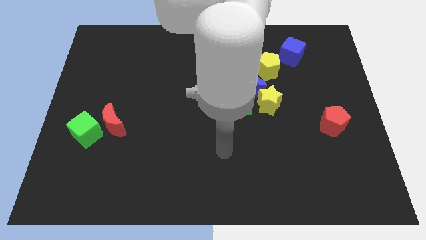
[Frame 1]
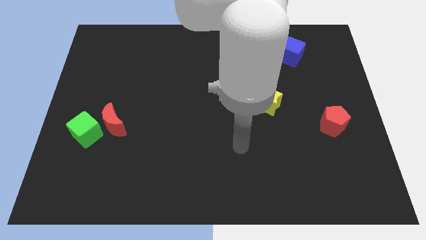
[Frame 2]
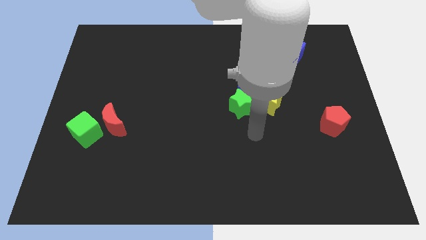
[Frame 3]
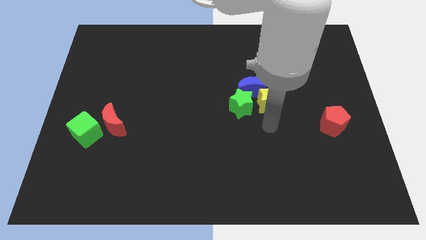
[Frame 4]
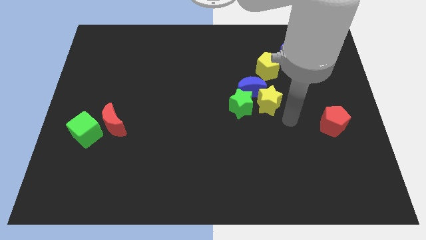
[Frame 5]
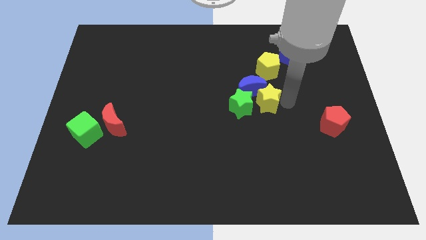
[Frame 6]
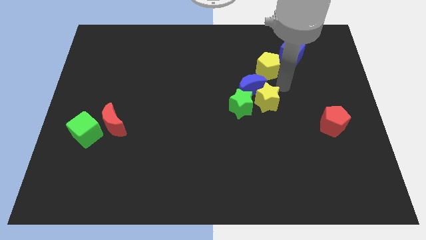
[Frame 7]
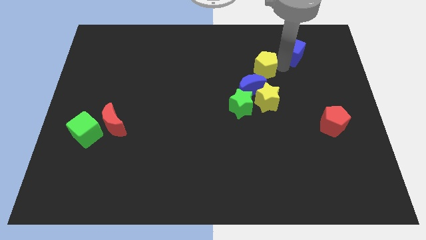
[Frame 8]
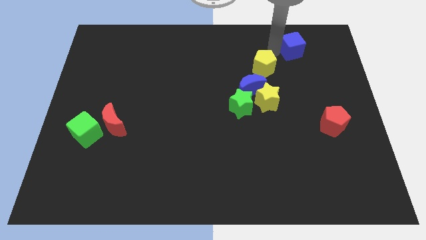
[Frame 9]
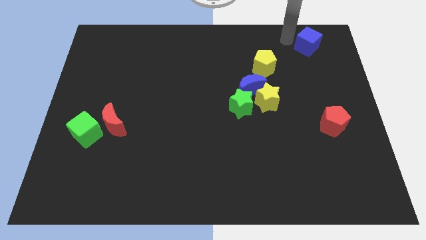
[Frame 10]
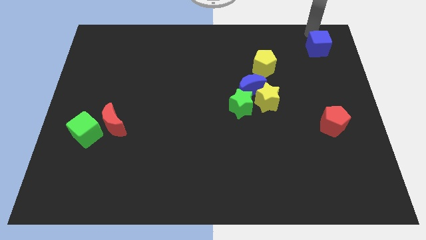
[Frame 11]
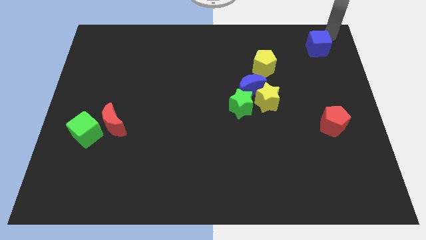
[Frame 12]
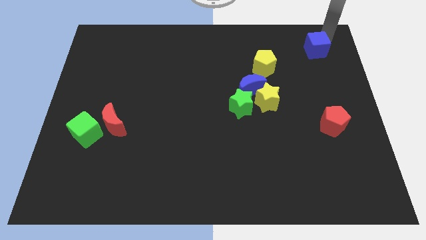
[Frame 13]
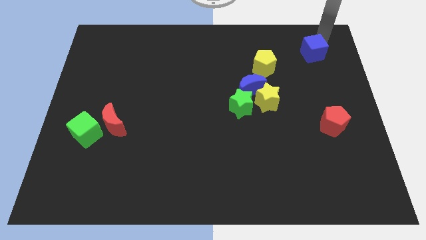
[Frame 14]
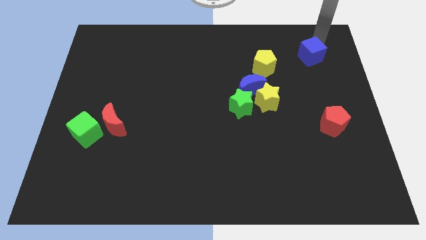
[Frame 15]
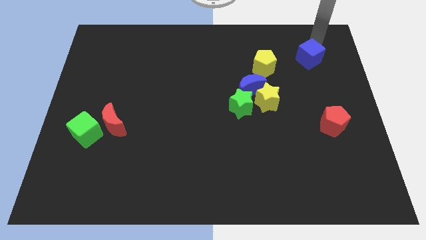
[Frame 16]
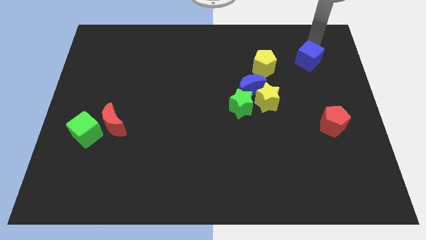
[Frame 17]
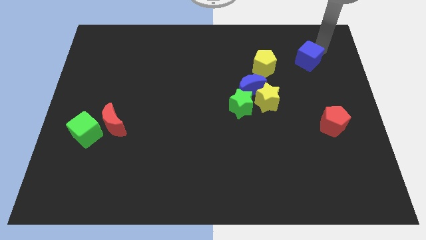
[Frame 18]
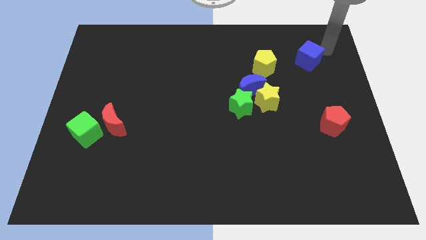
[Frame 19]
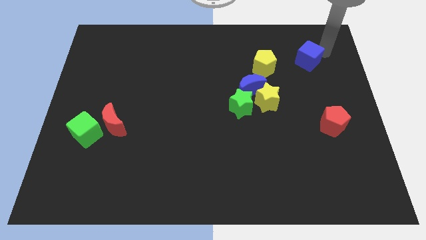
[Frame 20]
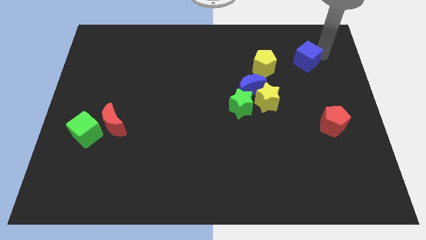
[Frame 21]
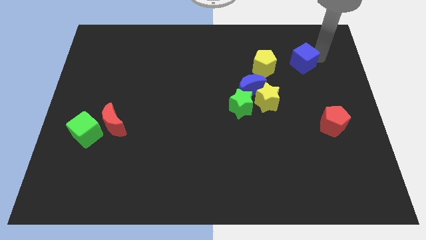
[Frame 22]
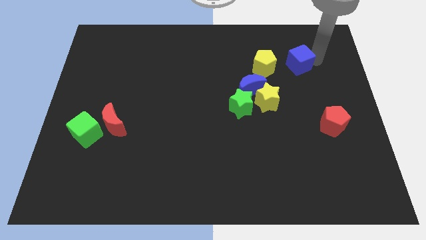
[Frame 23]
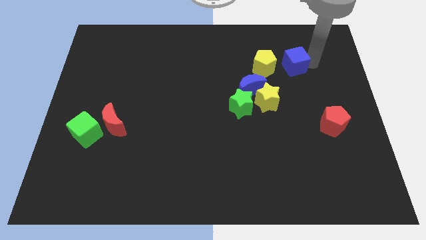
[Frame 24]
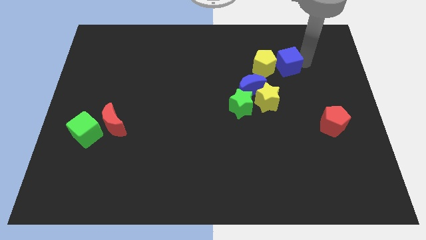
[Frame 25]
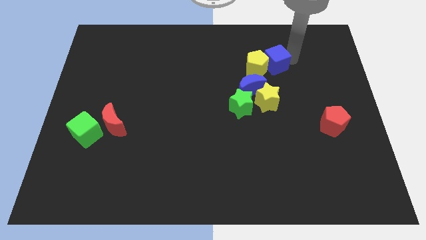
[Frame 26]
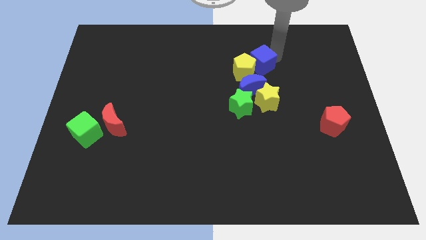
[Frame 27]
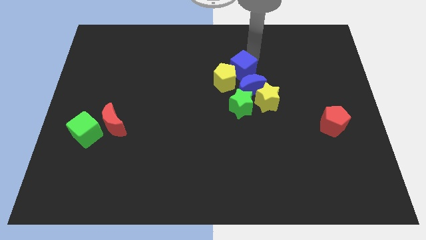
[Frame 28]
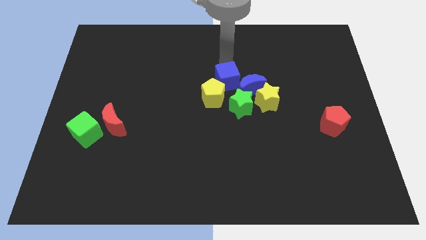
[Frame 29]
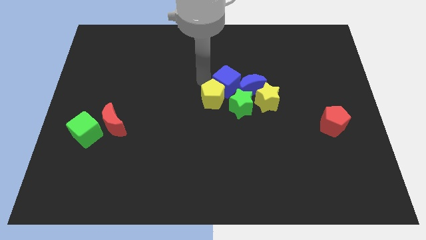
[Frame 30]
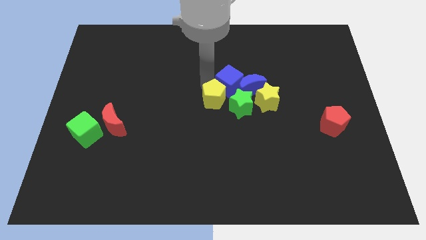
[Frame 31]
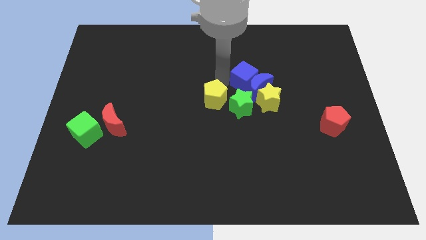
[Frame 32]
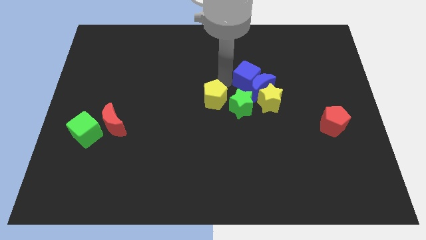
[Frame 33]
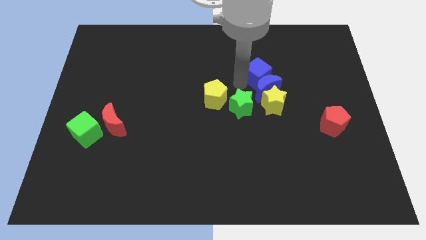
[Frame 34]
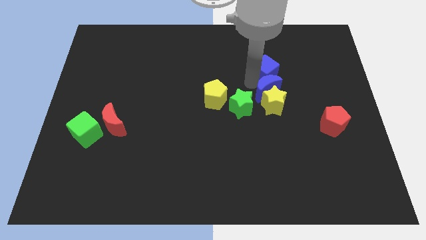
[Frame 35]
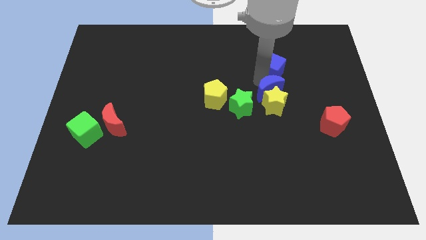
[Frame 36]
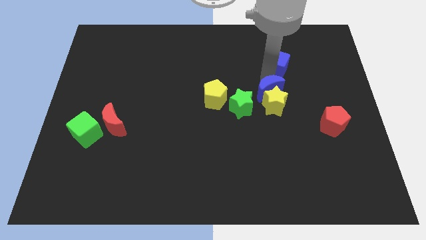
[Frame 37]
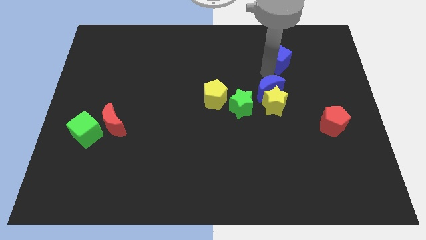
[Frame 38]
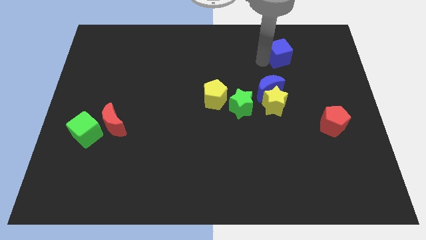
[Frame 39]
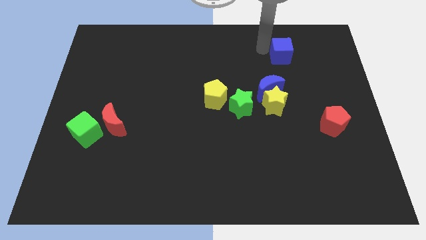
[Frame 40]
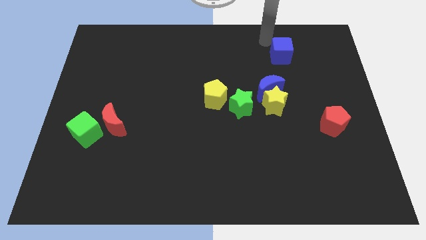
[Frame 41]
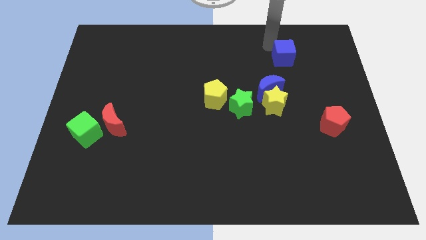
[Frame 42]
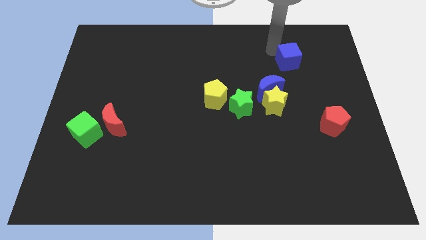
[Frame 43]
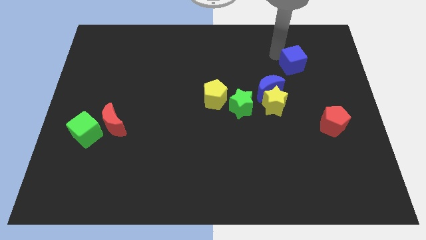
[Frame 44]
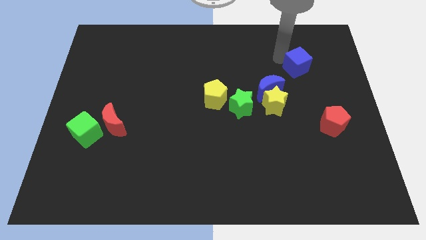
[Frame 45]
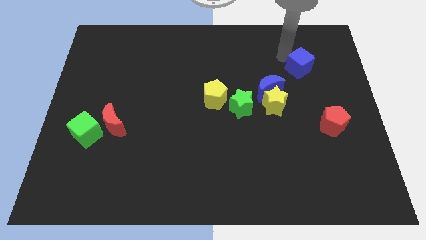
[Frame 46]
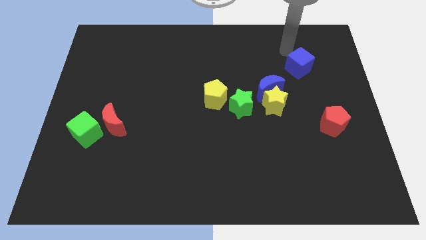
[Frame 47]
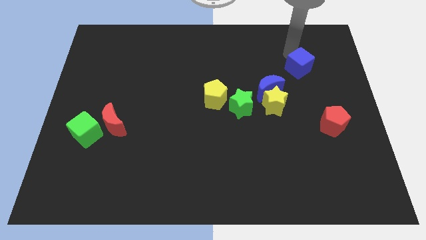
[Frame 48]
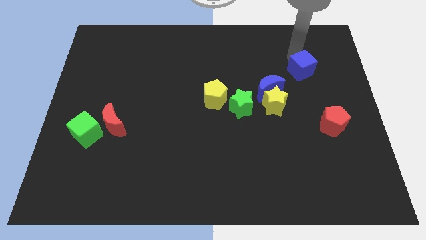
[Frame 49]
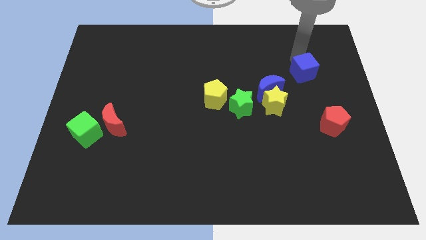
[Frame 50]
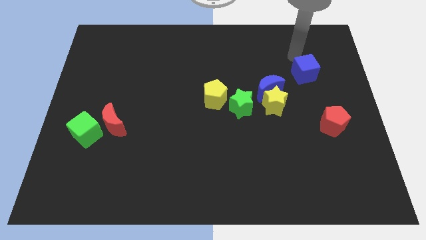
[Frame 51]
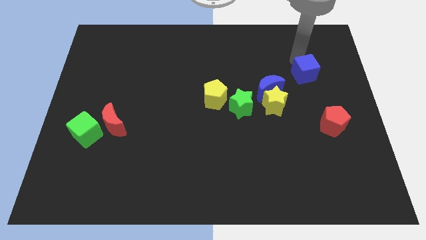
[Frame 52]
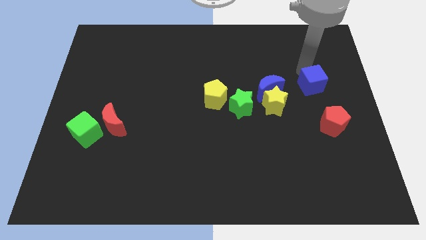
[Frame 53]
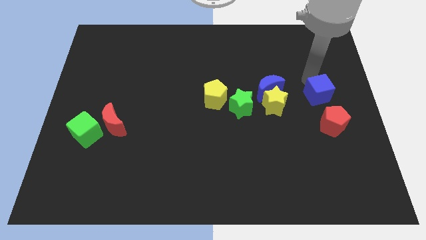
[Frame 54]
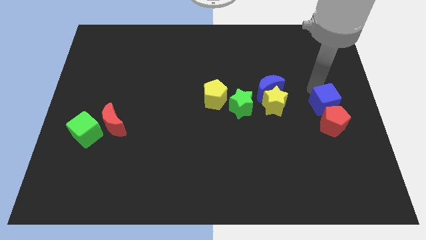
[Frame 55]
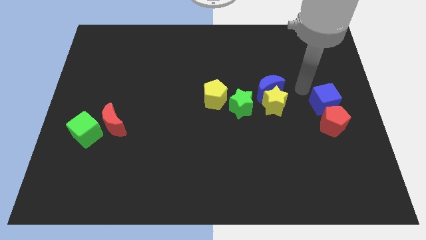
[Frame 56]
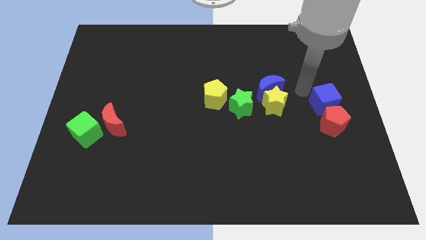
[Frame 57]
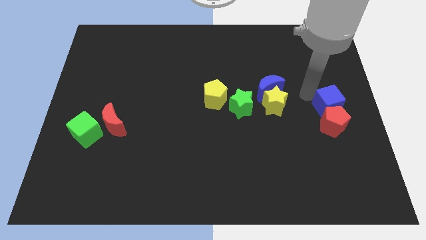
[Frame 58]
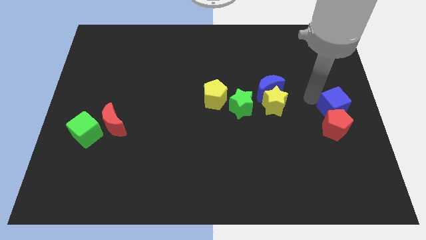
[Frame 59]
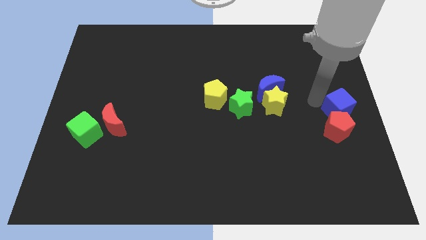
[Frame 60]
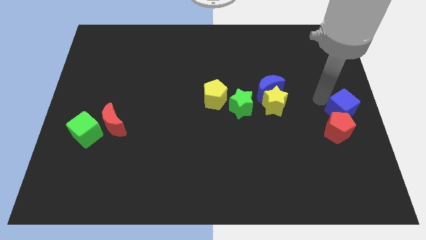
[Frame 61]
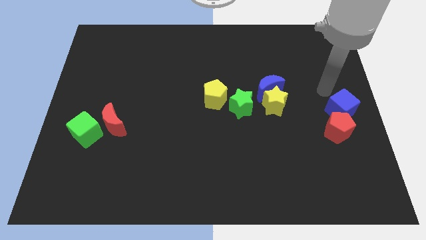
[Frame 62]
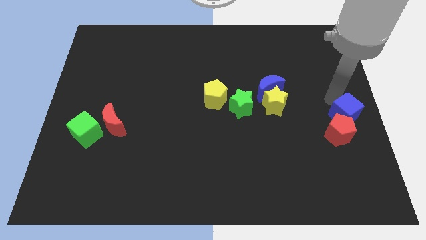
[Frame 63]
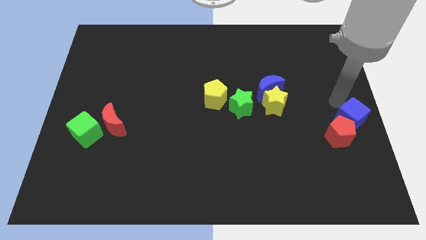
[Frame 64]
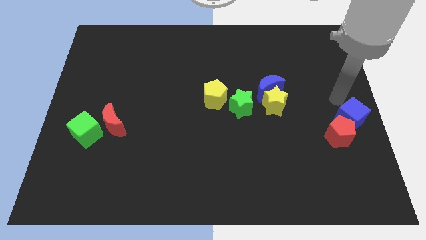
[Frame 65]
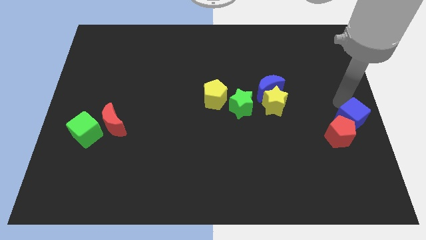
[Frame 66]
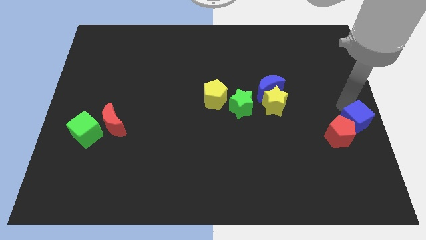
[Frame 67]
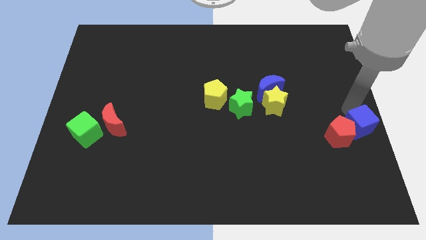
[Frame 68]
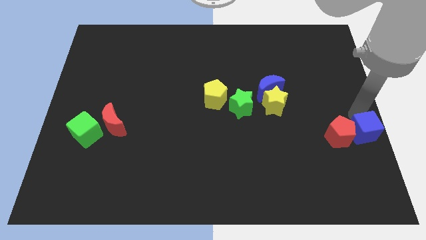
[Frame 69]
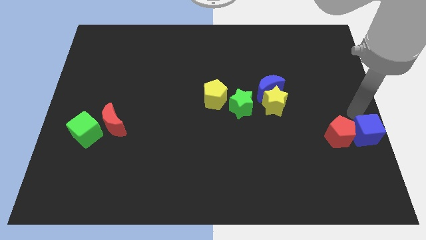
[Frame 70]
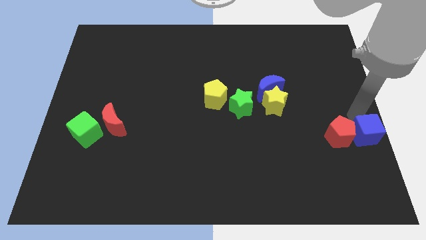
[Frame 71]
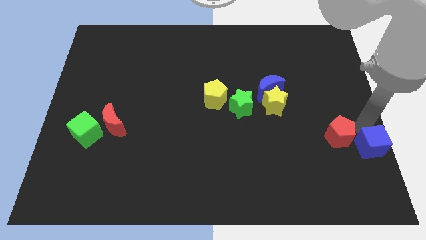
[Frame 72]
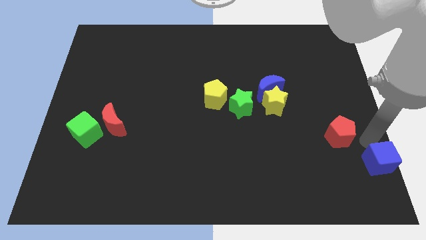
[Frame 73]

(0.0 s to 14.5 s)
put the blue cube to the lower right corner
